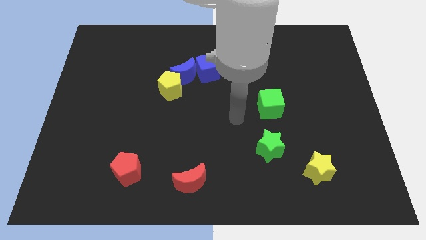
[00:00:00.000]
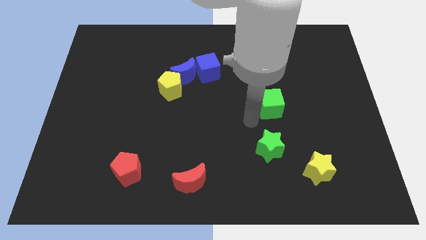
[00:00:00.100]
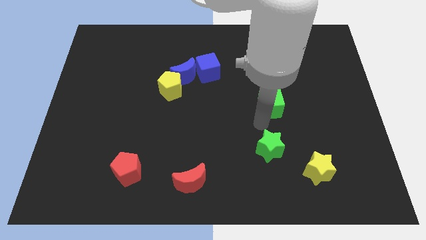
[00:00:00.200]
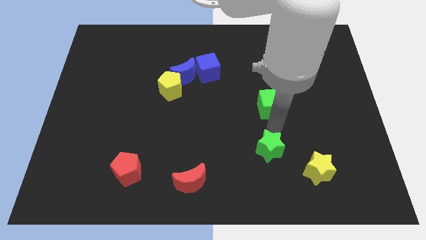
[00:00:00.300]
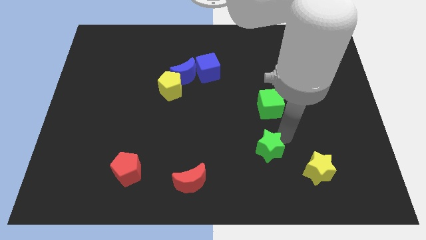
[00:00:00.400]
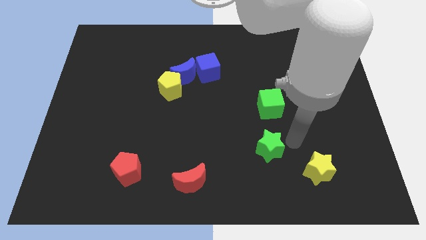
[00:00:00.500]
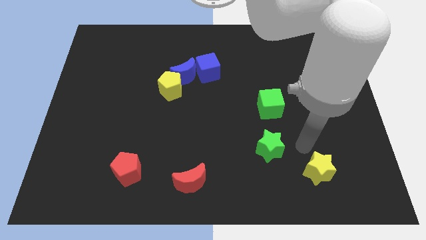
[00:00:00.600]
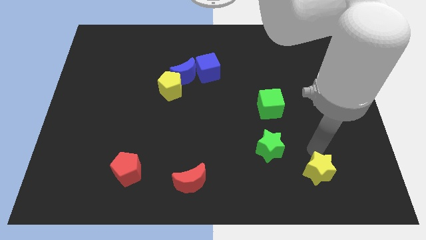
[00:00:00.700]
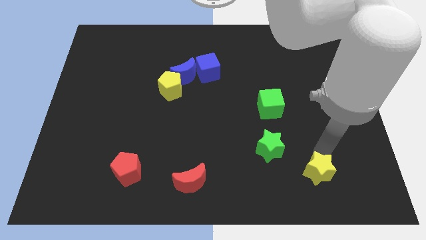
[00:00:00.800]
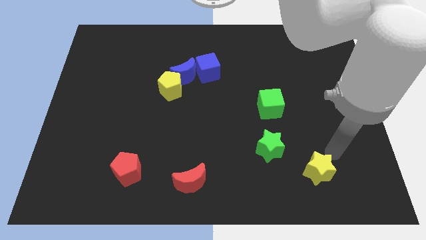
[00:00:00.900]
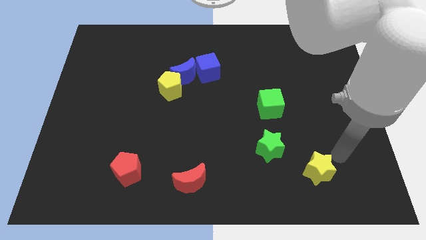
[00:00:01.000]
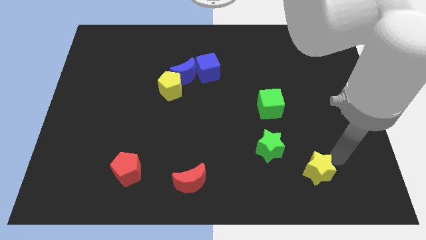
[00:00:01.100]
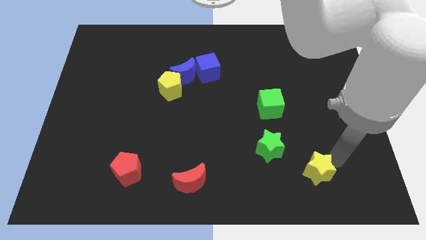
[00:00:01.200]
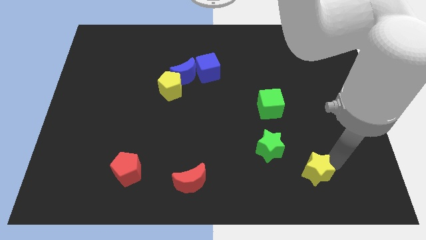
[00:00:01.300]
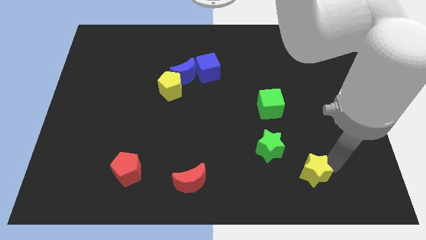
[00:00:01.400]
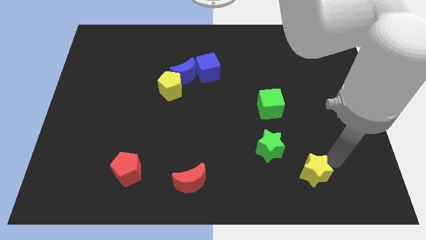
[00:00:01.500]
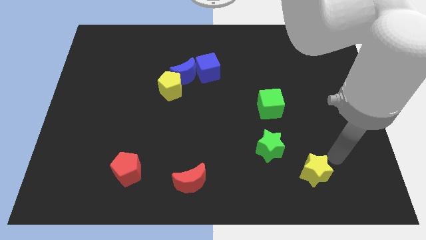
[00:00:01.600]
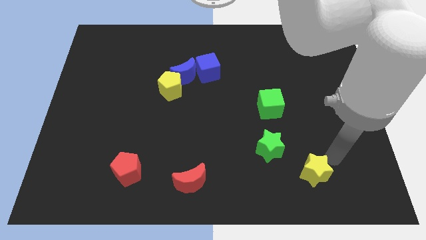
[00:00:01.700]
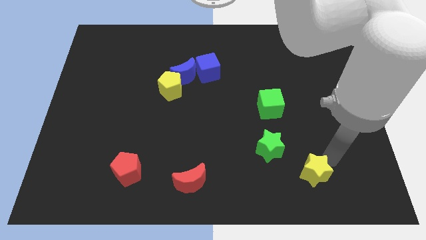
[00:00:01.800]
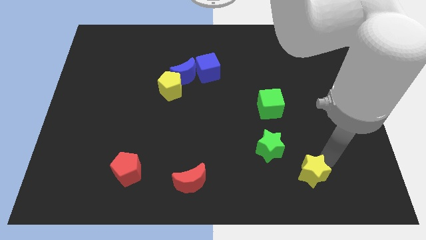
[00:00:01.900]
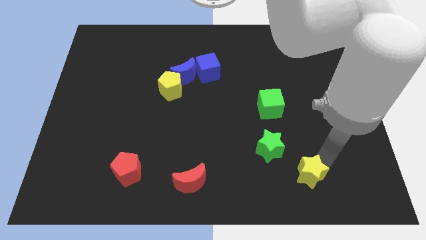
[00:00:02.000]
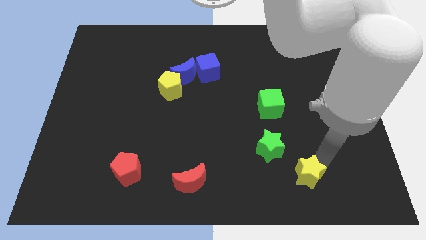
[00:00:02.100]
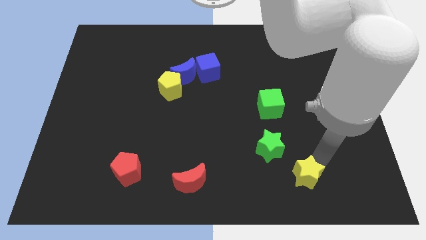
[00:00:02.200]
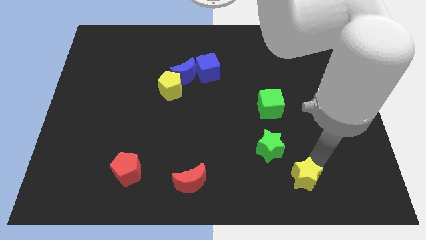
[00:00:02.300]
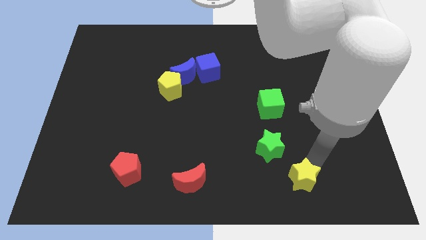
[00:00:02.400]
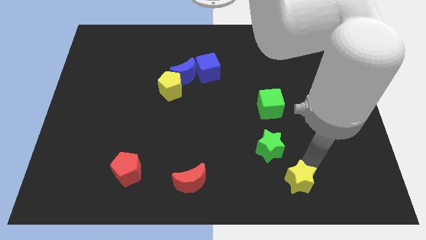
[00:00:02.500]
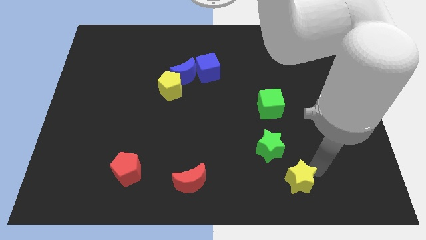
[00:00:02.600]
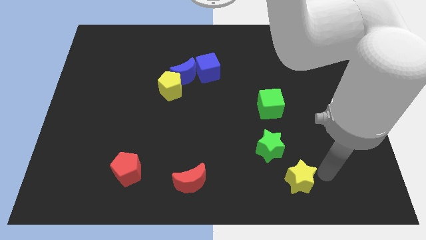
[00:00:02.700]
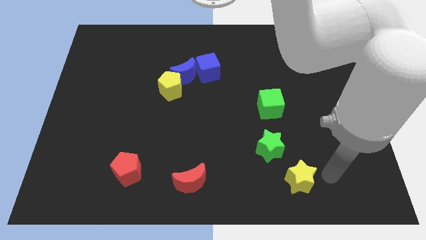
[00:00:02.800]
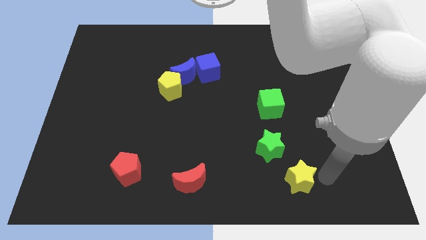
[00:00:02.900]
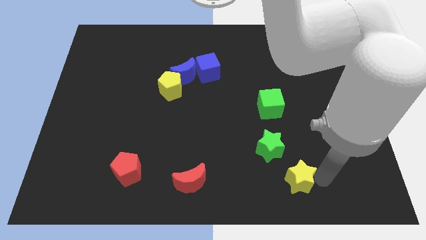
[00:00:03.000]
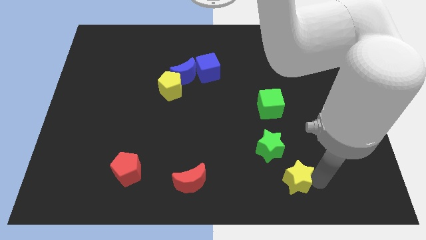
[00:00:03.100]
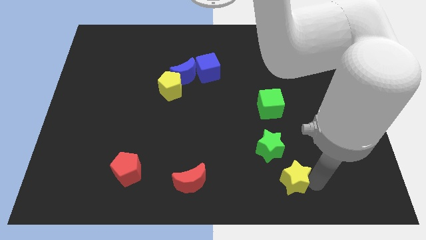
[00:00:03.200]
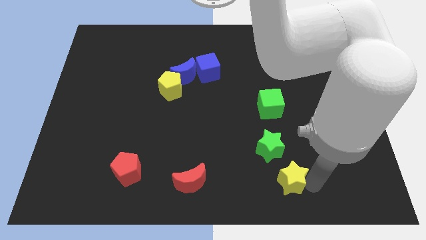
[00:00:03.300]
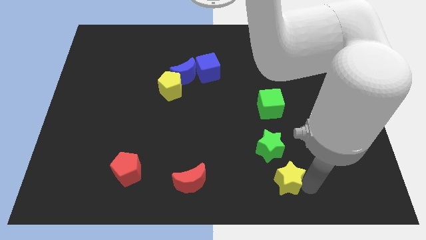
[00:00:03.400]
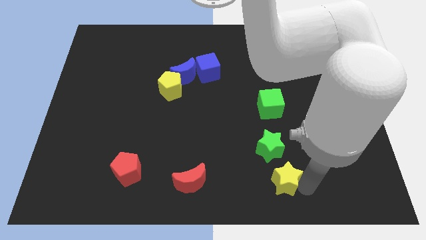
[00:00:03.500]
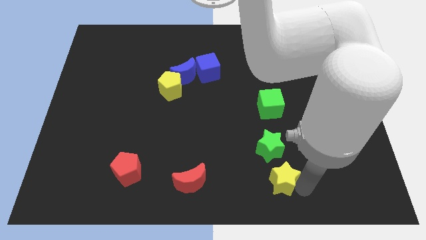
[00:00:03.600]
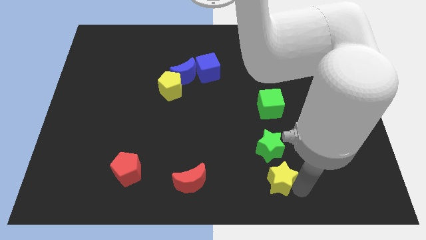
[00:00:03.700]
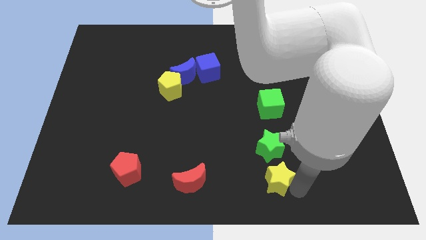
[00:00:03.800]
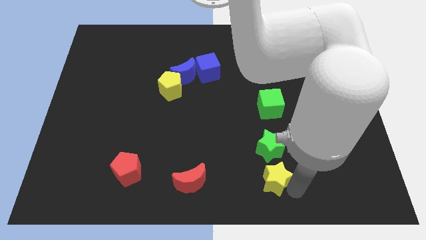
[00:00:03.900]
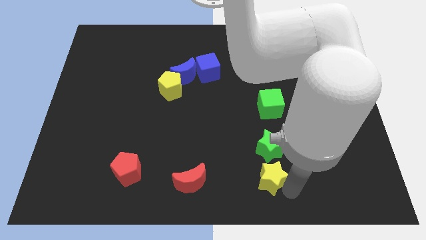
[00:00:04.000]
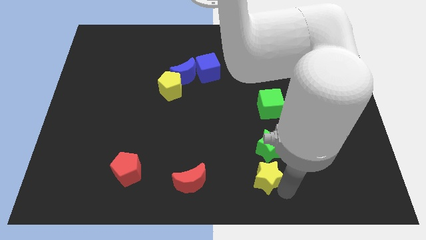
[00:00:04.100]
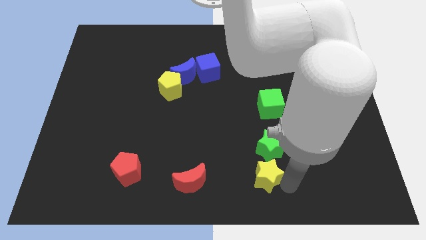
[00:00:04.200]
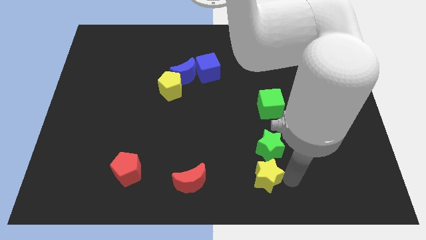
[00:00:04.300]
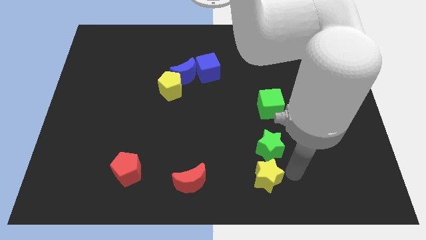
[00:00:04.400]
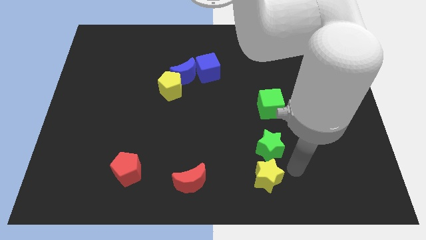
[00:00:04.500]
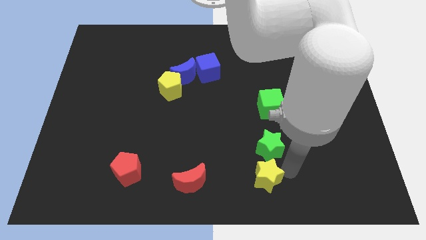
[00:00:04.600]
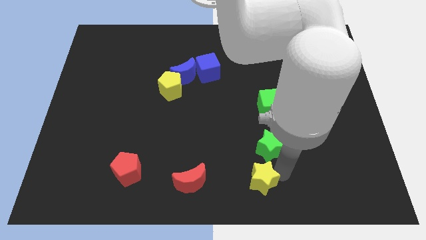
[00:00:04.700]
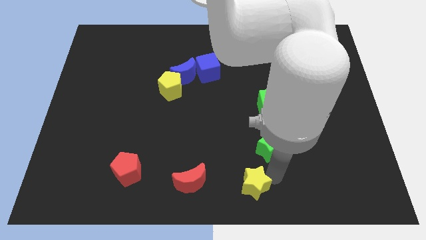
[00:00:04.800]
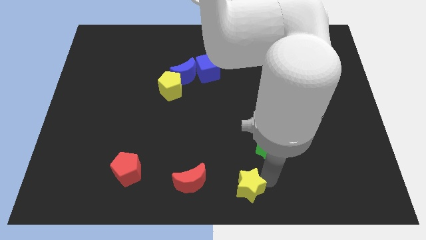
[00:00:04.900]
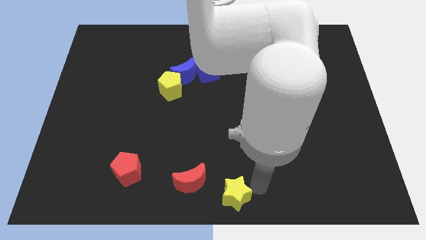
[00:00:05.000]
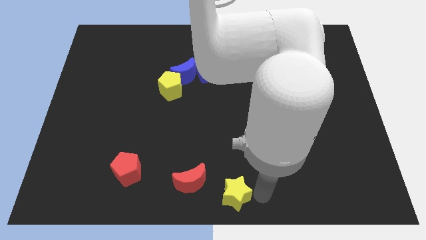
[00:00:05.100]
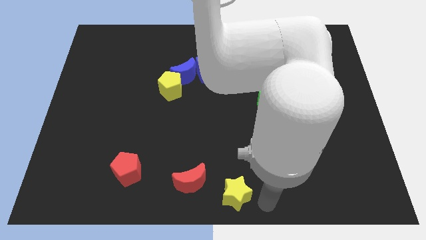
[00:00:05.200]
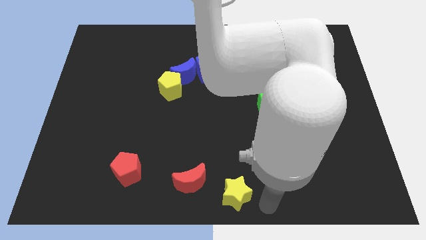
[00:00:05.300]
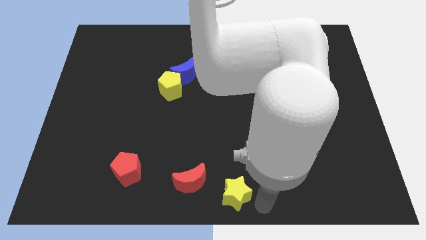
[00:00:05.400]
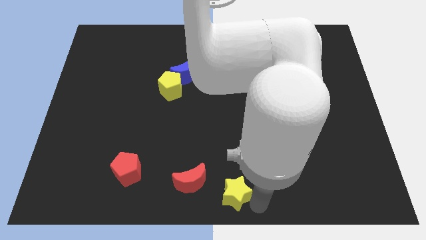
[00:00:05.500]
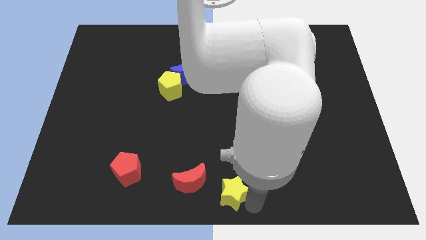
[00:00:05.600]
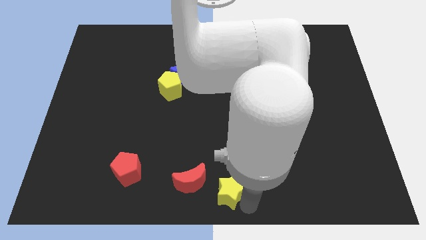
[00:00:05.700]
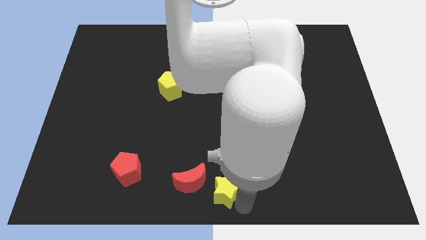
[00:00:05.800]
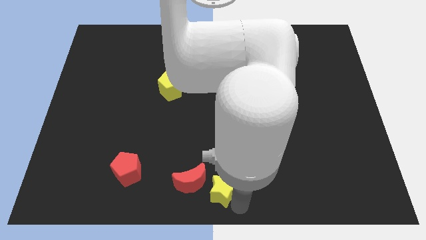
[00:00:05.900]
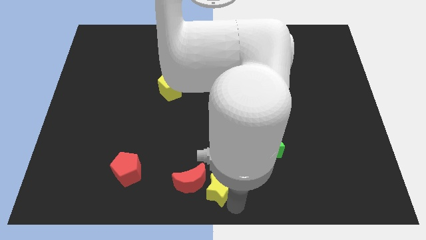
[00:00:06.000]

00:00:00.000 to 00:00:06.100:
move the yellow star towards the red moon

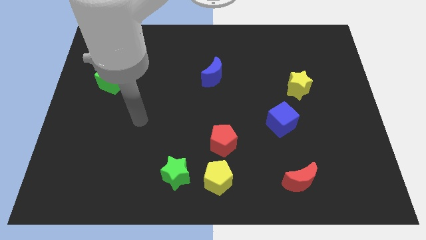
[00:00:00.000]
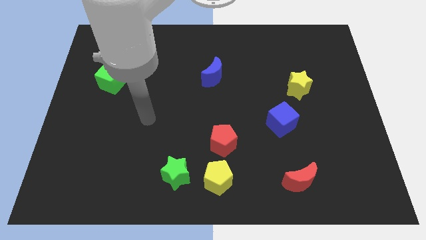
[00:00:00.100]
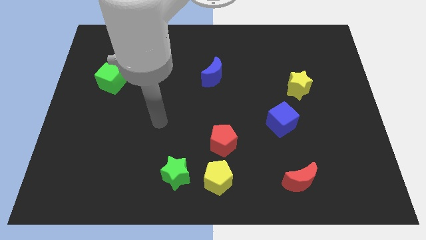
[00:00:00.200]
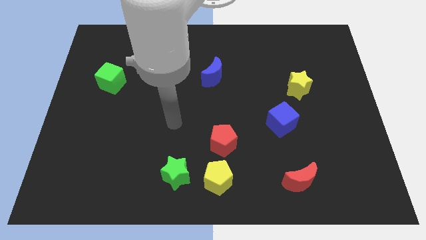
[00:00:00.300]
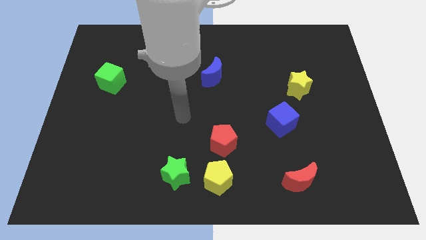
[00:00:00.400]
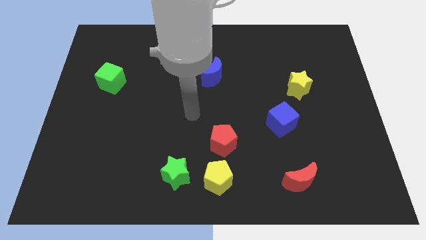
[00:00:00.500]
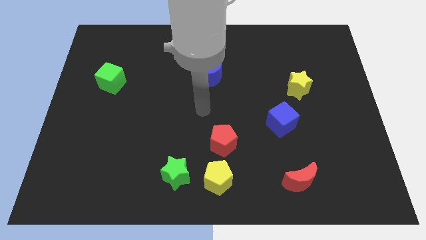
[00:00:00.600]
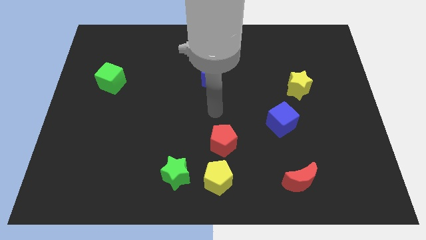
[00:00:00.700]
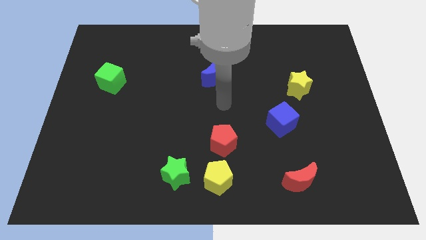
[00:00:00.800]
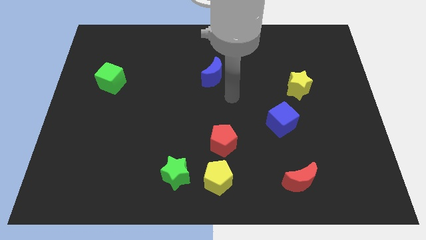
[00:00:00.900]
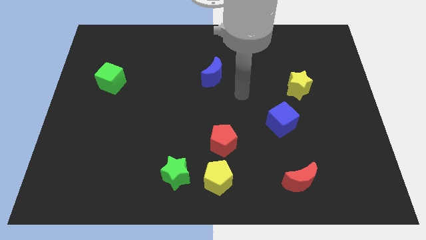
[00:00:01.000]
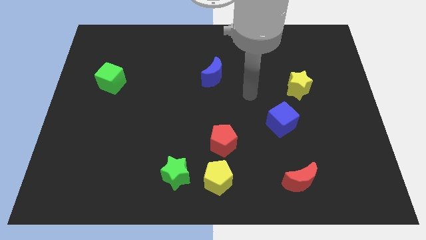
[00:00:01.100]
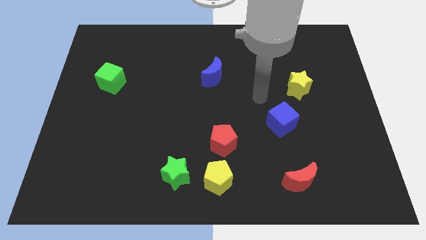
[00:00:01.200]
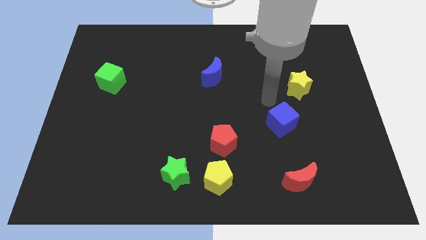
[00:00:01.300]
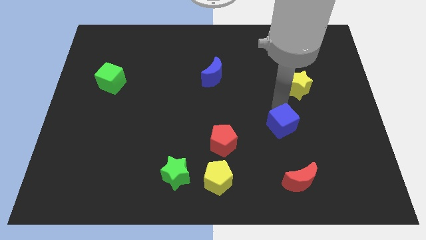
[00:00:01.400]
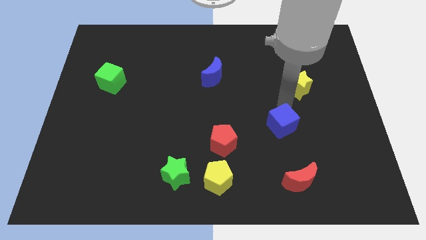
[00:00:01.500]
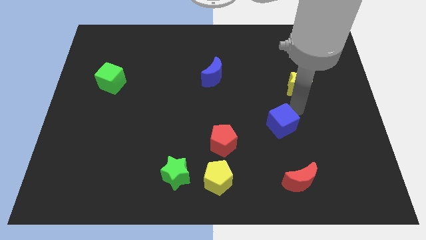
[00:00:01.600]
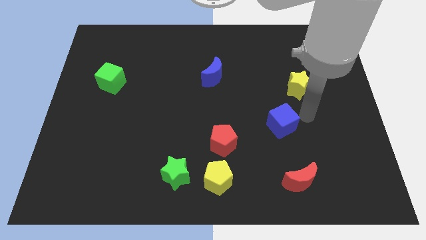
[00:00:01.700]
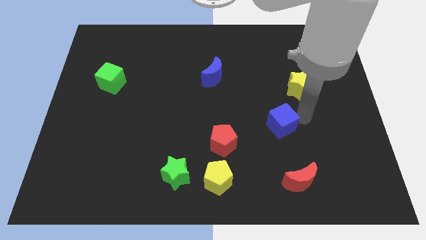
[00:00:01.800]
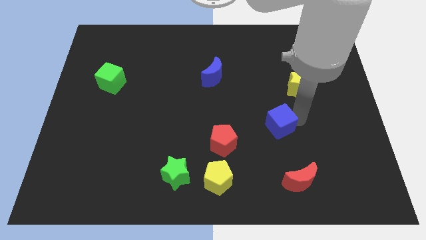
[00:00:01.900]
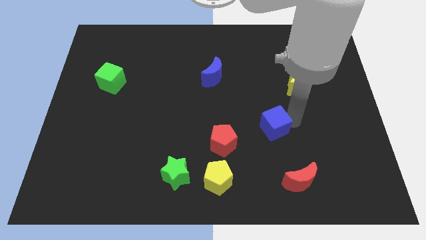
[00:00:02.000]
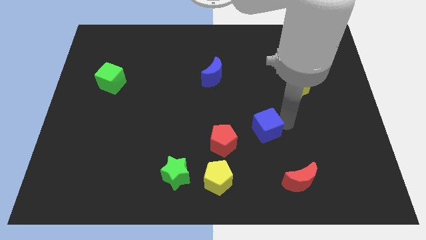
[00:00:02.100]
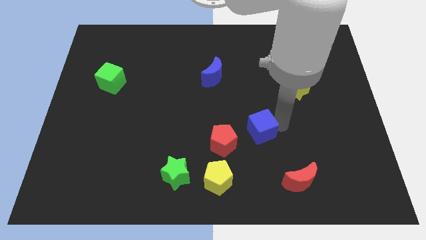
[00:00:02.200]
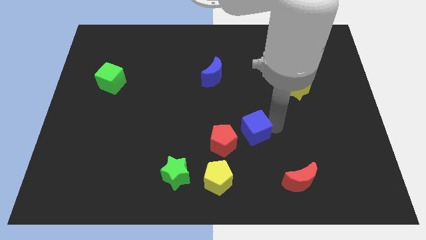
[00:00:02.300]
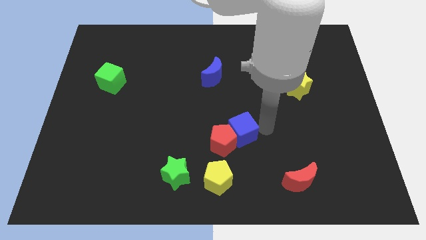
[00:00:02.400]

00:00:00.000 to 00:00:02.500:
slide the blue cube towards the red pentagon
